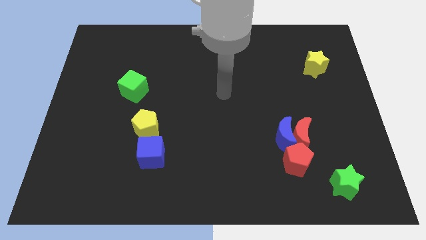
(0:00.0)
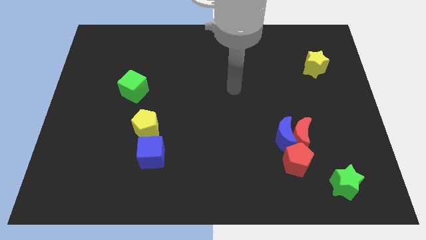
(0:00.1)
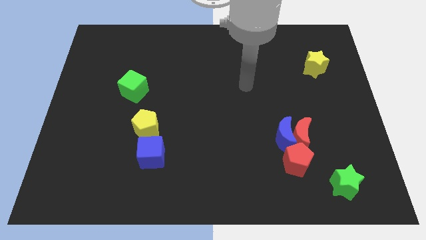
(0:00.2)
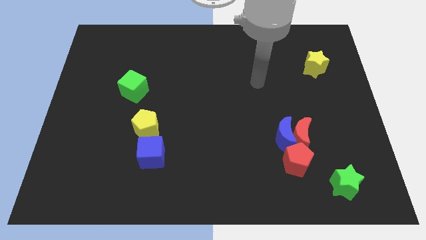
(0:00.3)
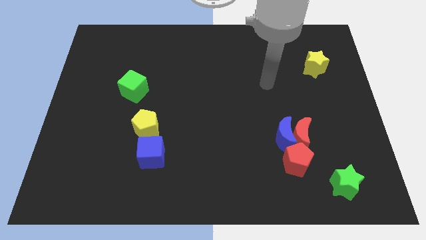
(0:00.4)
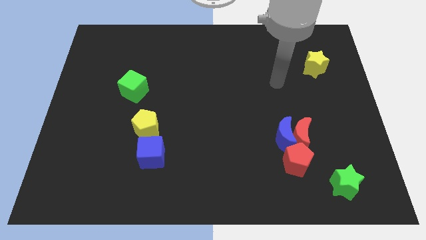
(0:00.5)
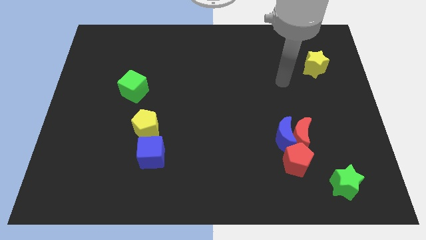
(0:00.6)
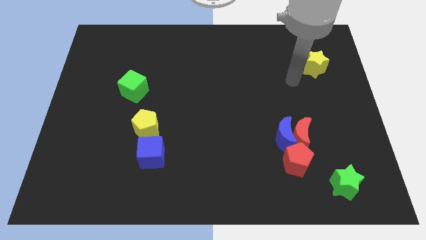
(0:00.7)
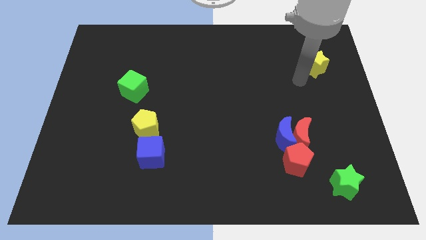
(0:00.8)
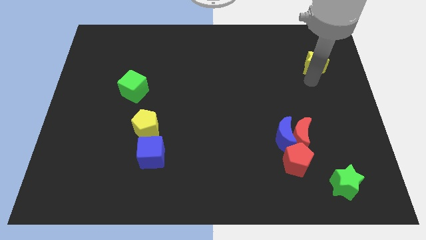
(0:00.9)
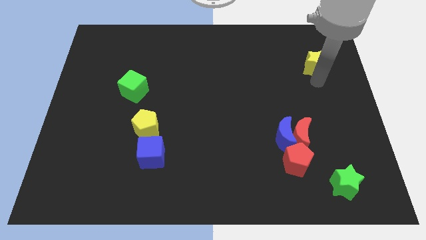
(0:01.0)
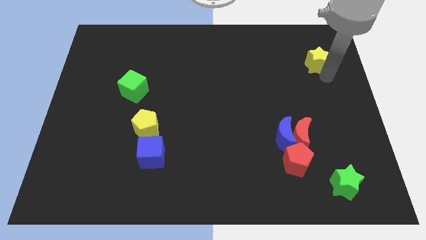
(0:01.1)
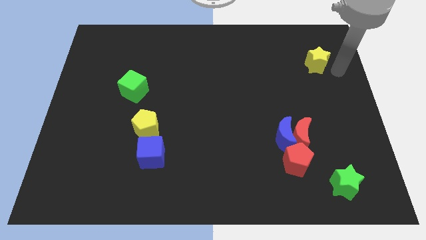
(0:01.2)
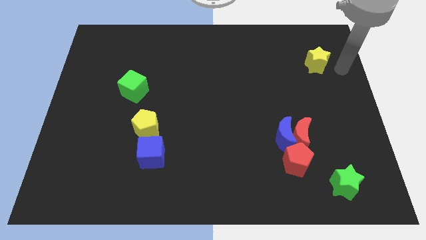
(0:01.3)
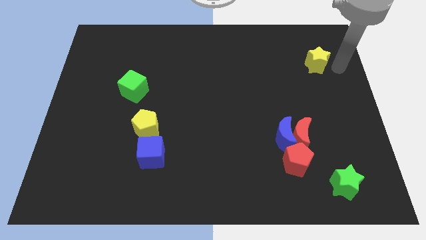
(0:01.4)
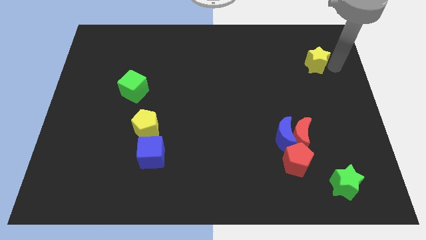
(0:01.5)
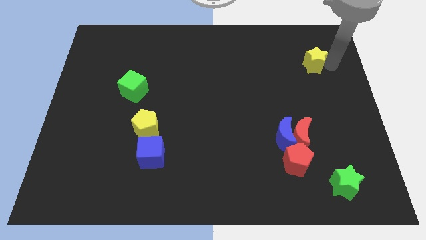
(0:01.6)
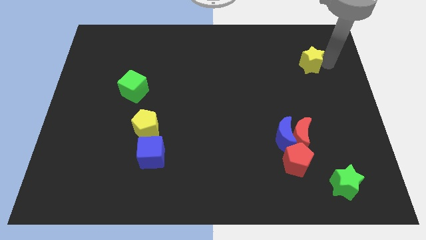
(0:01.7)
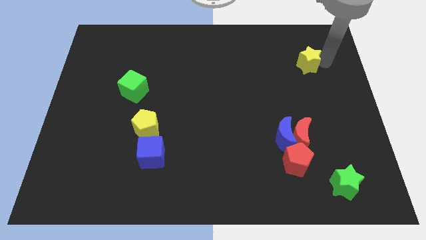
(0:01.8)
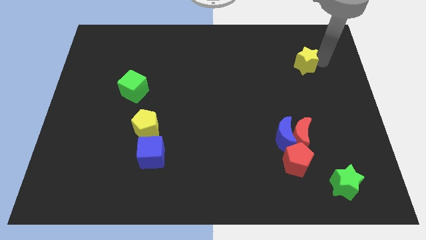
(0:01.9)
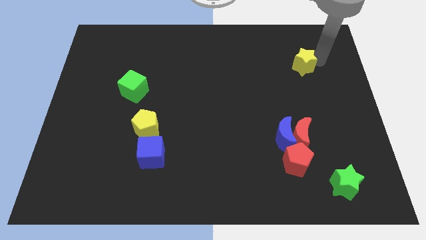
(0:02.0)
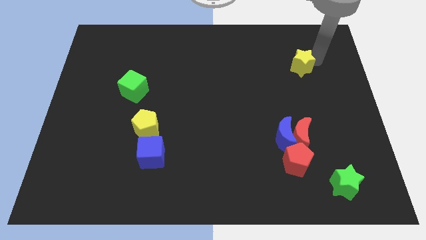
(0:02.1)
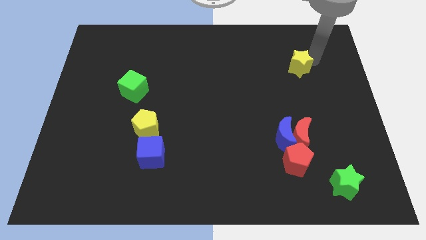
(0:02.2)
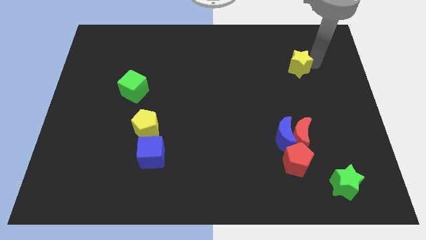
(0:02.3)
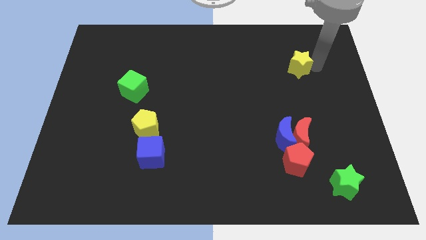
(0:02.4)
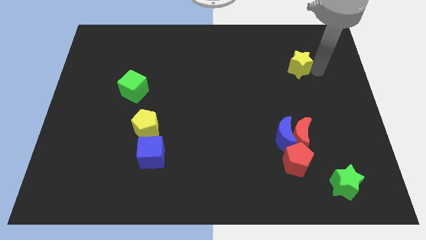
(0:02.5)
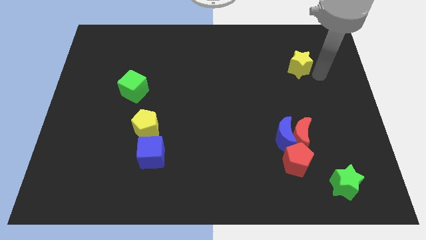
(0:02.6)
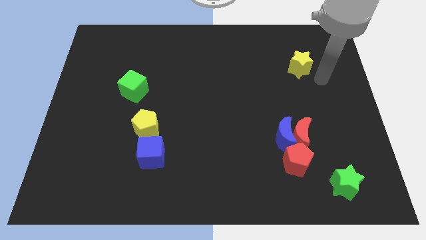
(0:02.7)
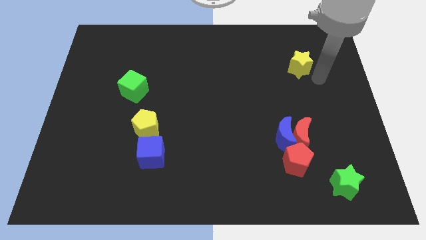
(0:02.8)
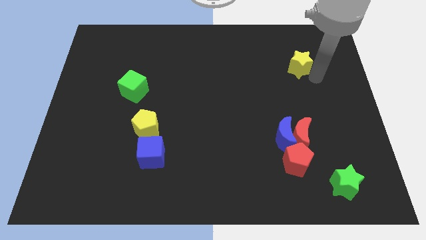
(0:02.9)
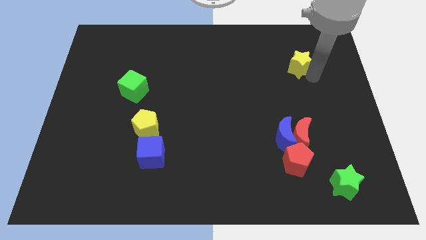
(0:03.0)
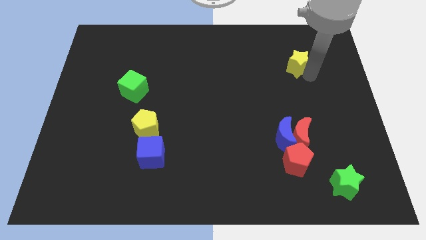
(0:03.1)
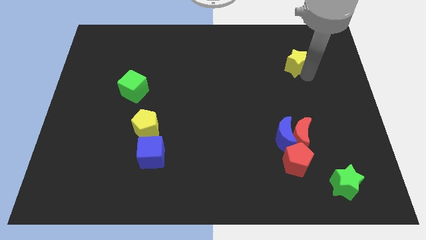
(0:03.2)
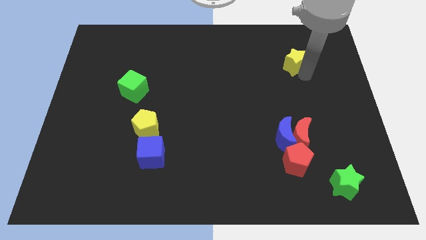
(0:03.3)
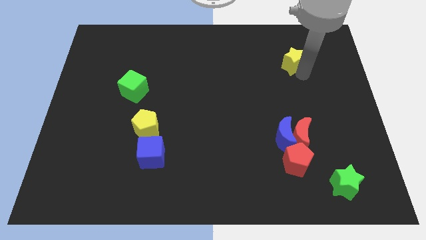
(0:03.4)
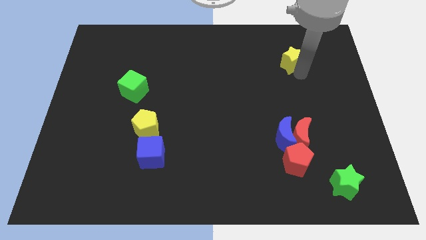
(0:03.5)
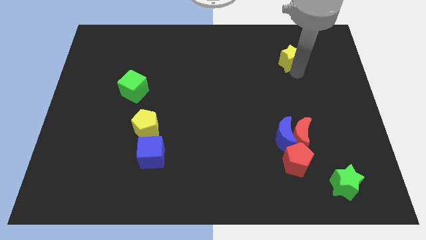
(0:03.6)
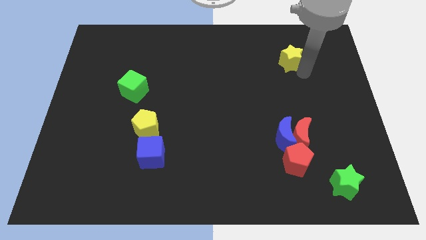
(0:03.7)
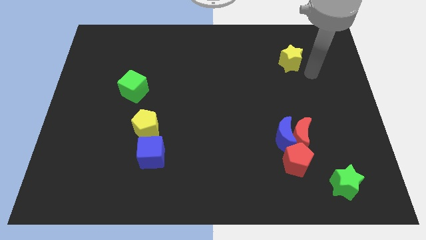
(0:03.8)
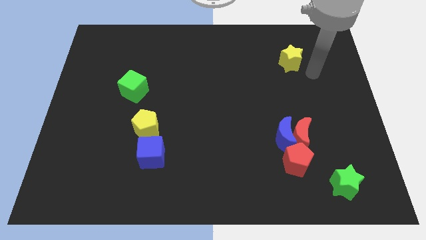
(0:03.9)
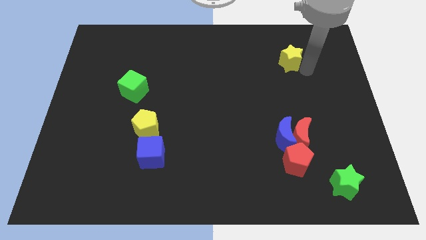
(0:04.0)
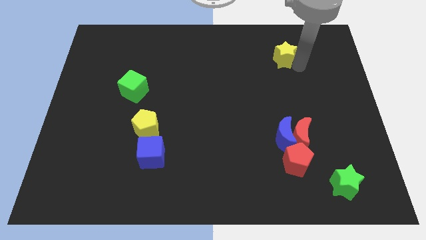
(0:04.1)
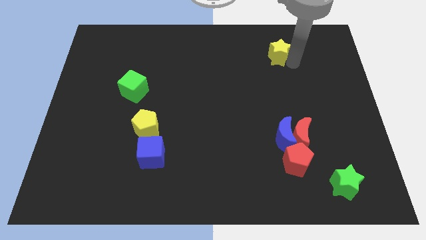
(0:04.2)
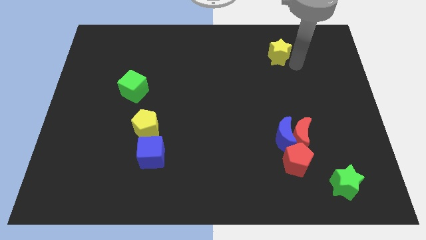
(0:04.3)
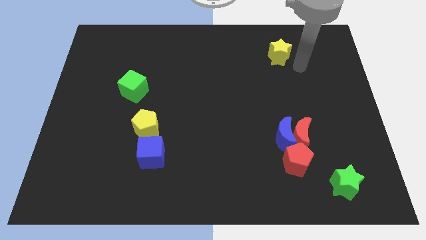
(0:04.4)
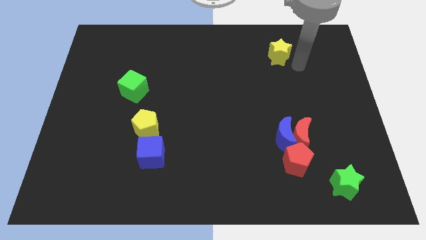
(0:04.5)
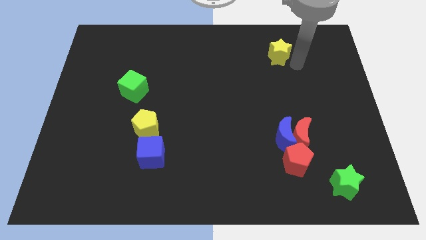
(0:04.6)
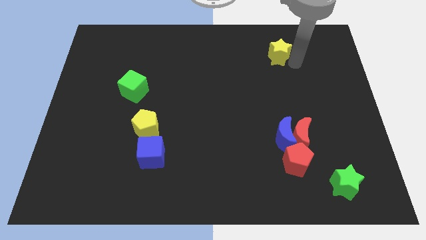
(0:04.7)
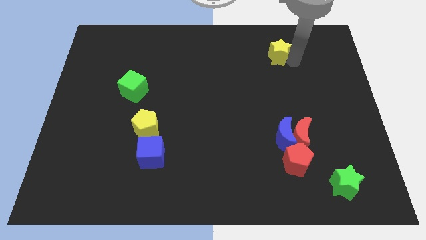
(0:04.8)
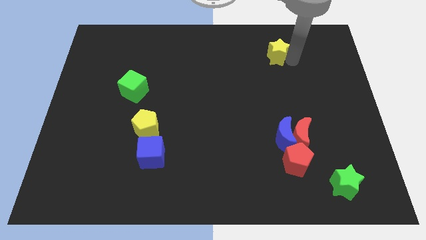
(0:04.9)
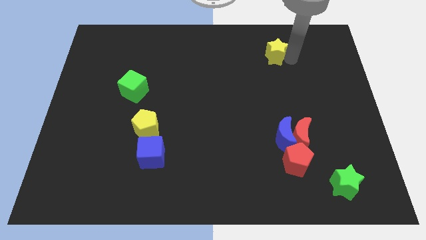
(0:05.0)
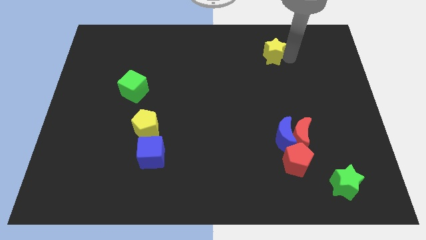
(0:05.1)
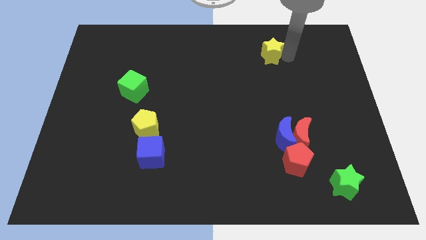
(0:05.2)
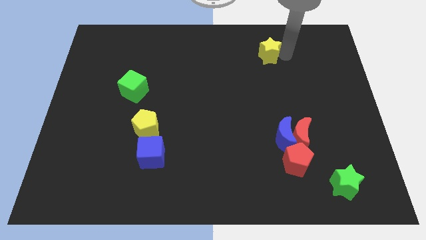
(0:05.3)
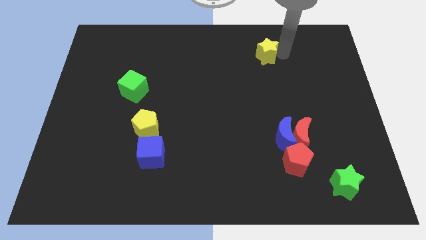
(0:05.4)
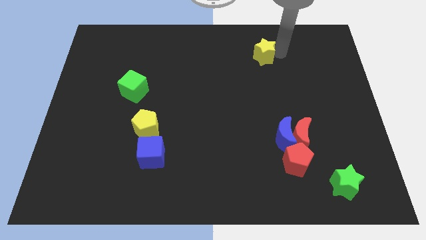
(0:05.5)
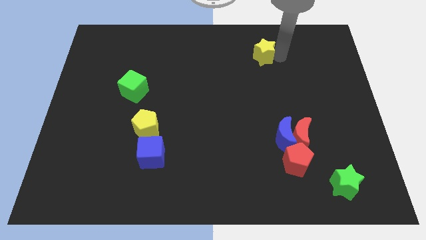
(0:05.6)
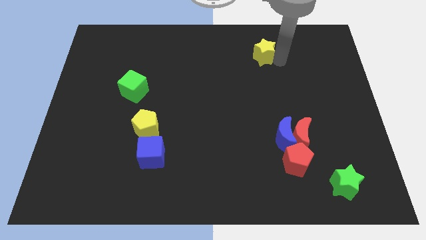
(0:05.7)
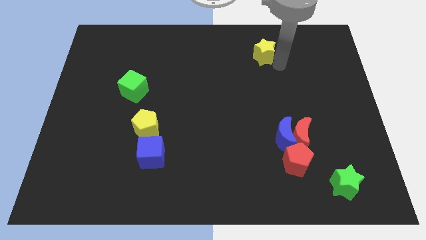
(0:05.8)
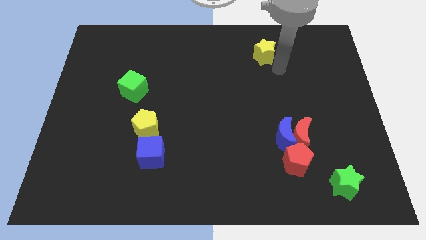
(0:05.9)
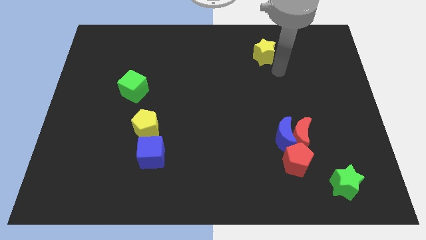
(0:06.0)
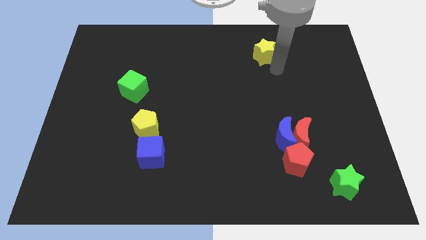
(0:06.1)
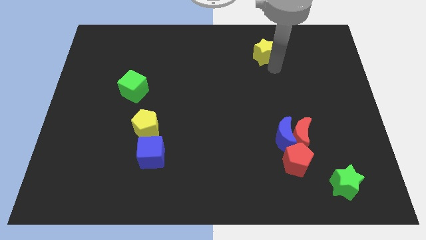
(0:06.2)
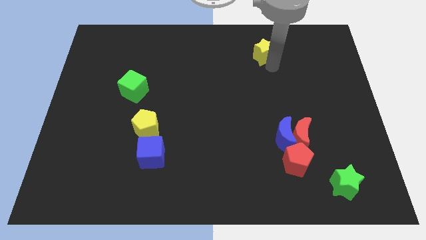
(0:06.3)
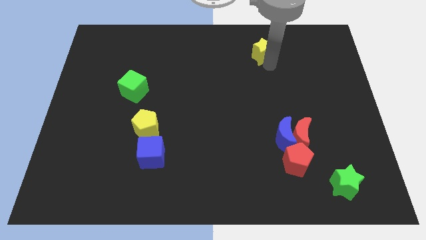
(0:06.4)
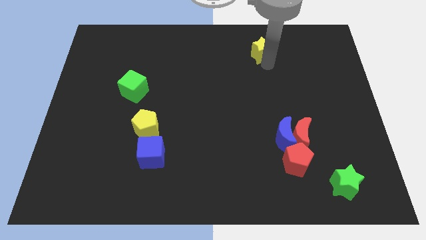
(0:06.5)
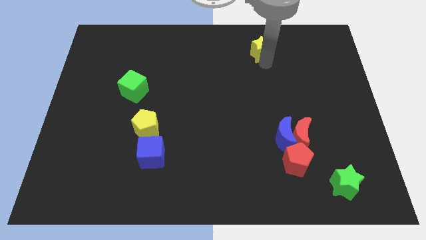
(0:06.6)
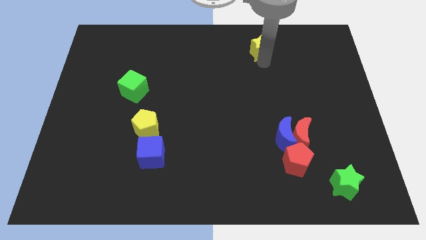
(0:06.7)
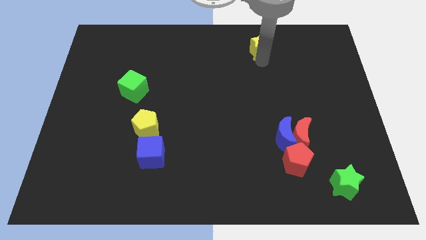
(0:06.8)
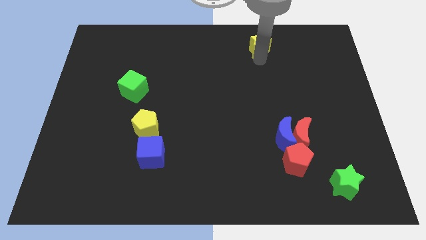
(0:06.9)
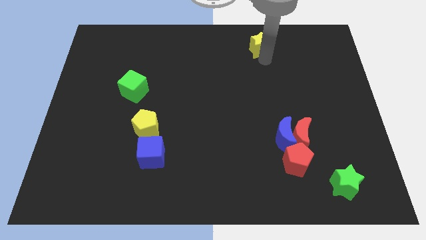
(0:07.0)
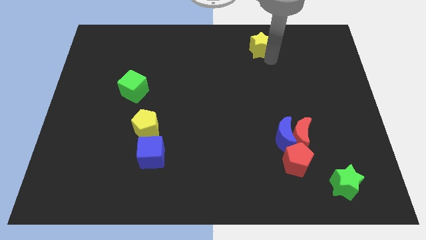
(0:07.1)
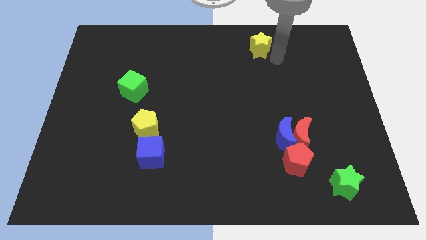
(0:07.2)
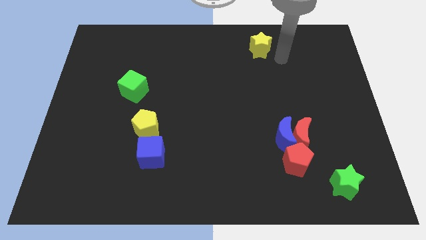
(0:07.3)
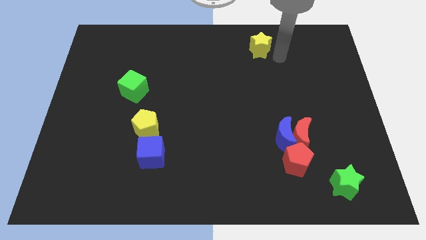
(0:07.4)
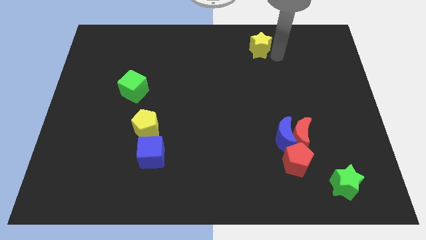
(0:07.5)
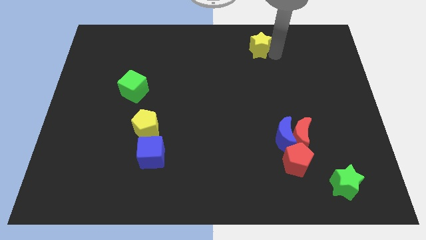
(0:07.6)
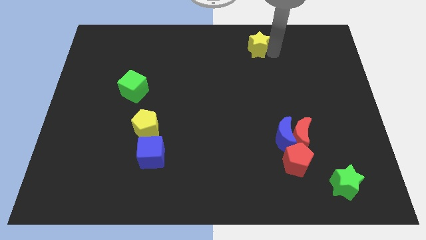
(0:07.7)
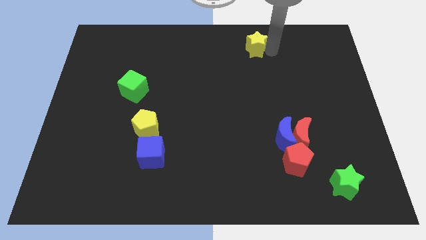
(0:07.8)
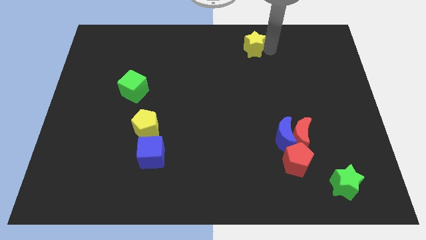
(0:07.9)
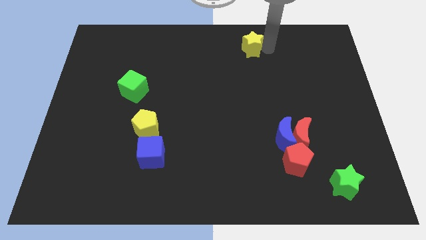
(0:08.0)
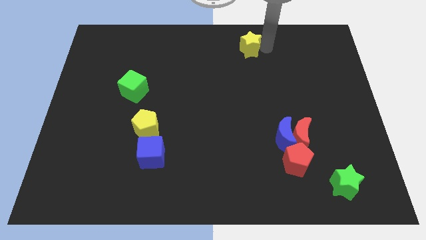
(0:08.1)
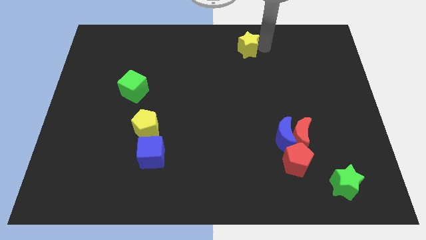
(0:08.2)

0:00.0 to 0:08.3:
push the yellow star to the top side
